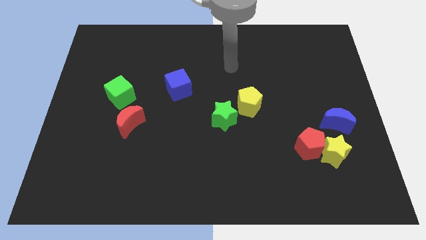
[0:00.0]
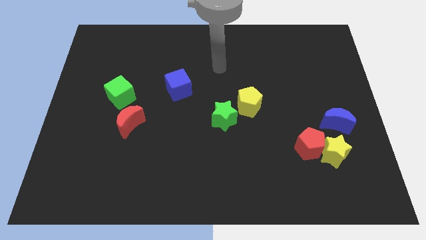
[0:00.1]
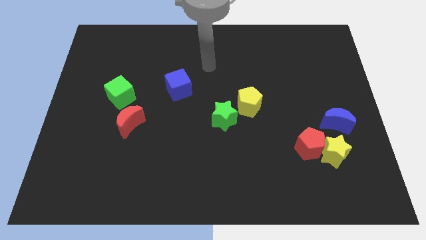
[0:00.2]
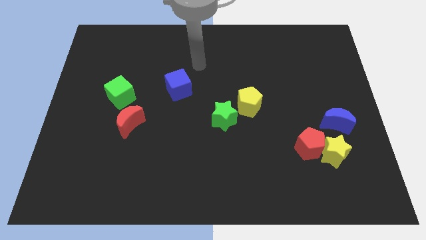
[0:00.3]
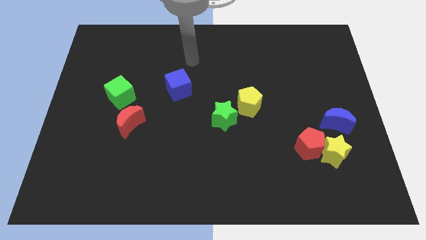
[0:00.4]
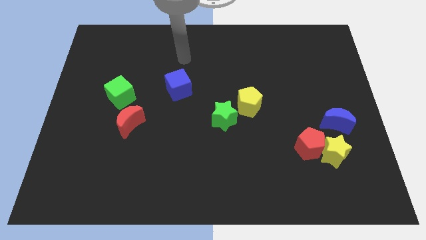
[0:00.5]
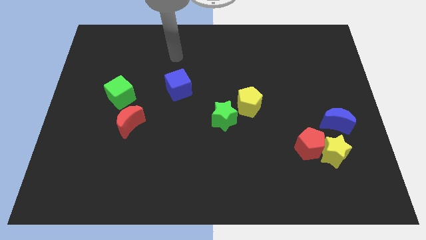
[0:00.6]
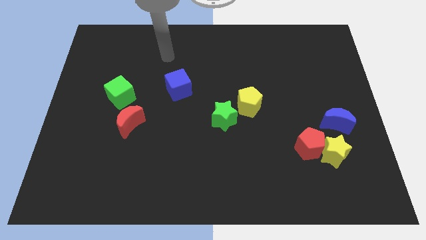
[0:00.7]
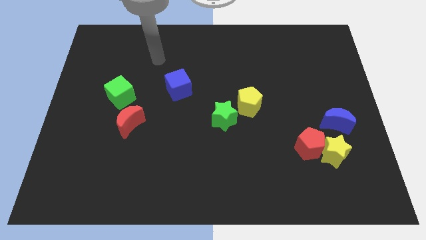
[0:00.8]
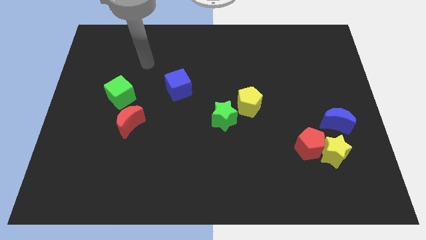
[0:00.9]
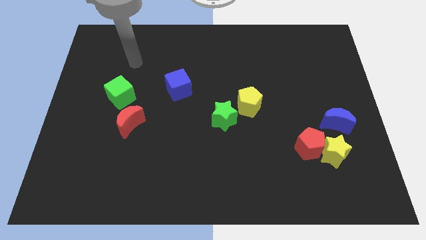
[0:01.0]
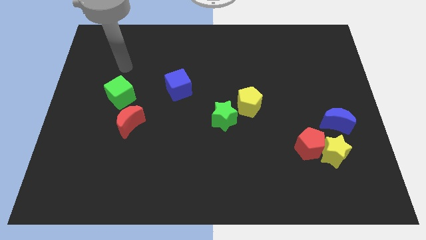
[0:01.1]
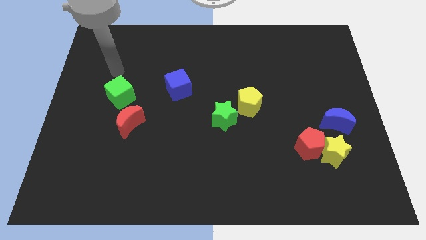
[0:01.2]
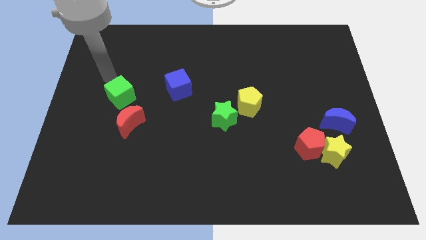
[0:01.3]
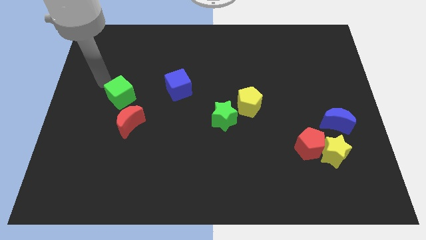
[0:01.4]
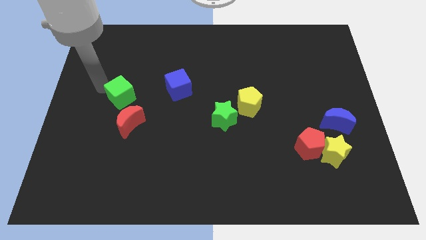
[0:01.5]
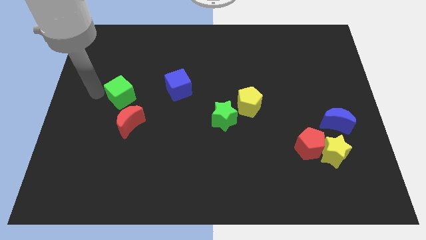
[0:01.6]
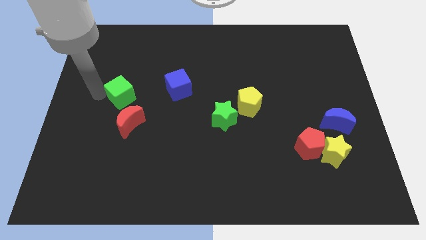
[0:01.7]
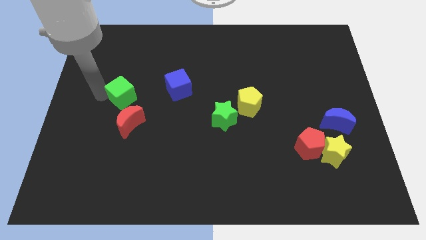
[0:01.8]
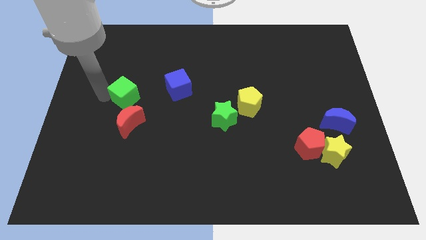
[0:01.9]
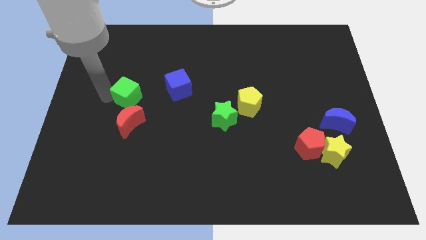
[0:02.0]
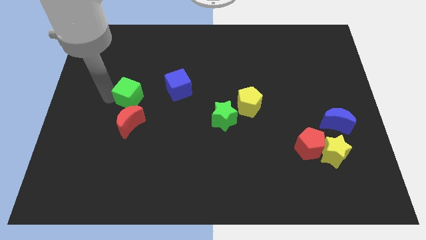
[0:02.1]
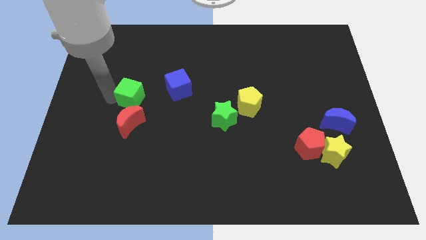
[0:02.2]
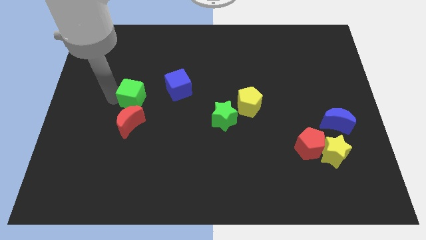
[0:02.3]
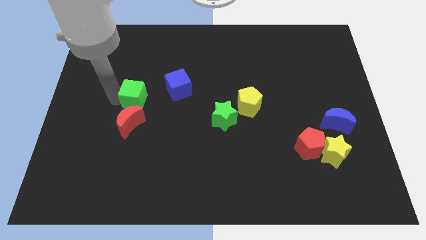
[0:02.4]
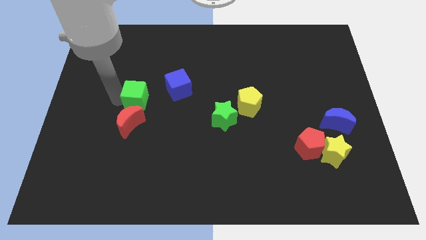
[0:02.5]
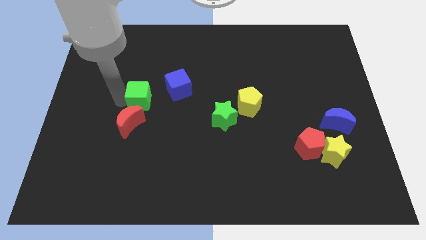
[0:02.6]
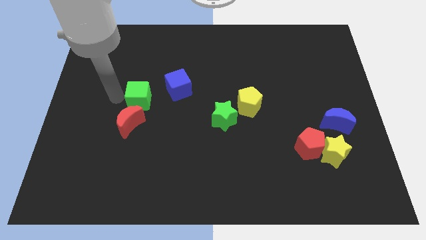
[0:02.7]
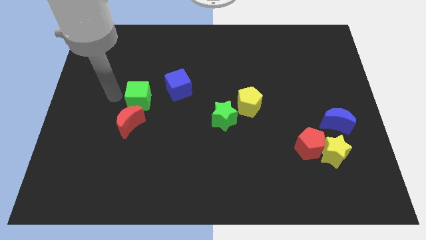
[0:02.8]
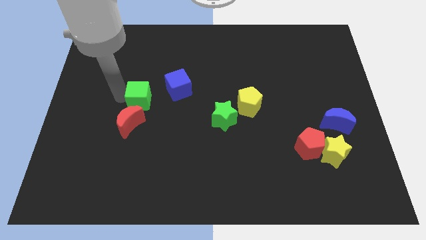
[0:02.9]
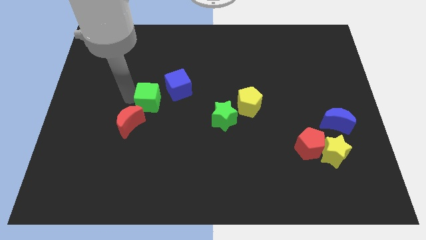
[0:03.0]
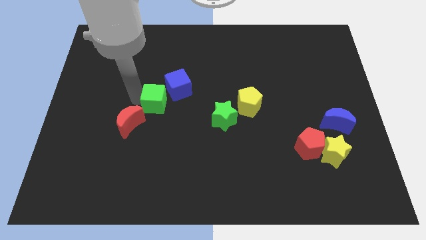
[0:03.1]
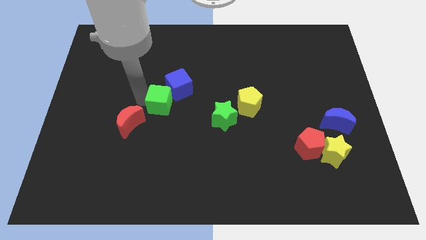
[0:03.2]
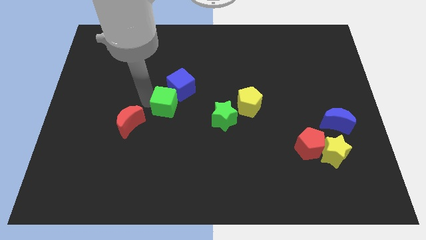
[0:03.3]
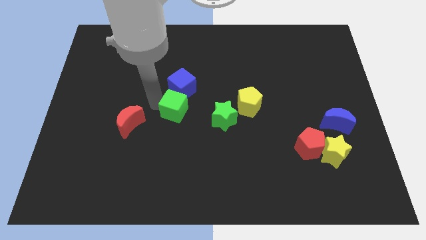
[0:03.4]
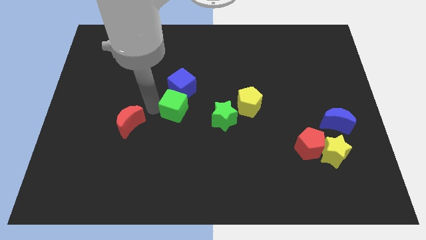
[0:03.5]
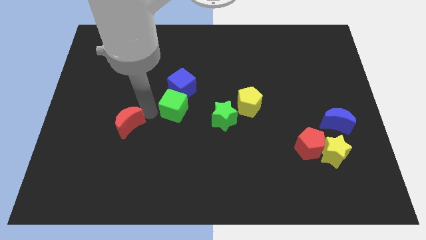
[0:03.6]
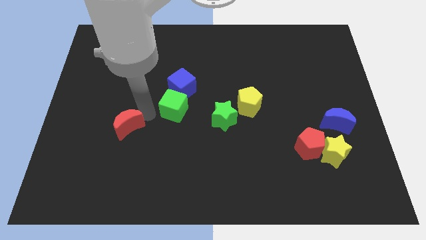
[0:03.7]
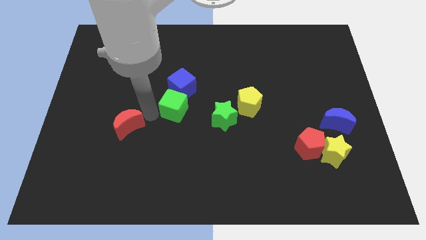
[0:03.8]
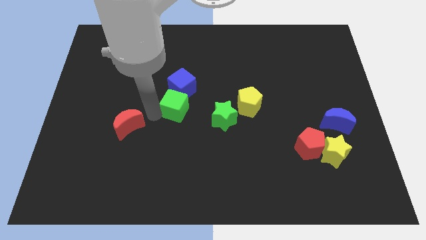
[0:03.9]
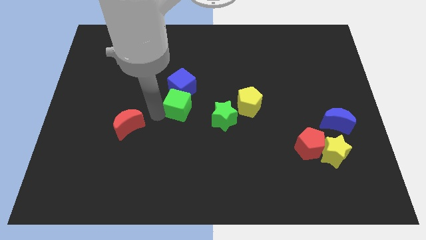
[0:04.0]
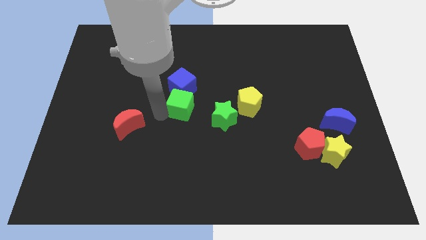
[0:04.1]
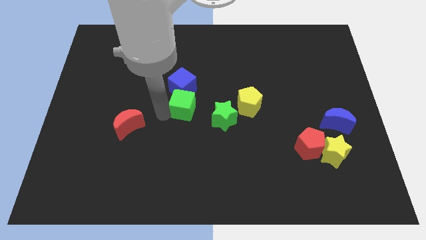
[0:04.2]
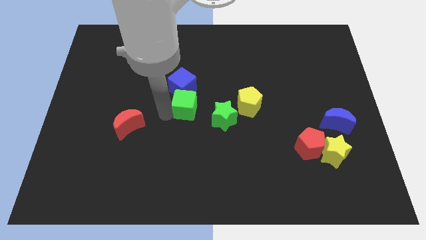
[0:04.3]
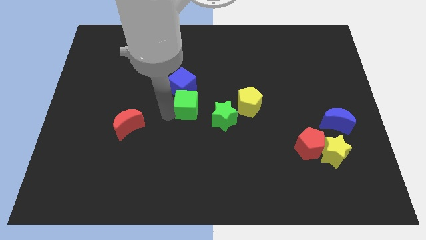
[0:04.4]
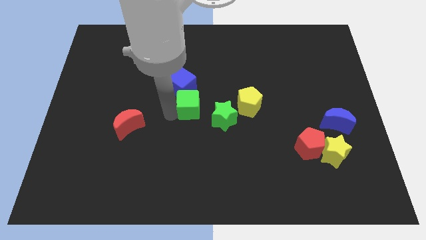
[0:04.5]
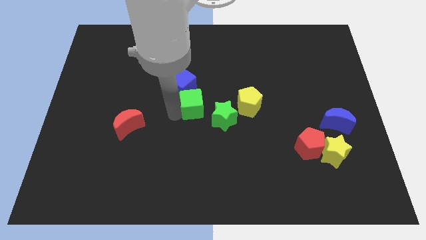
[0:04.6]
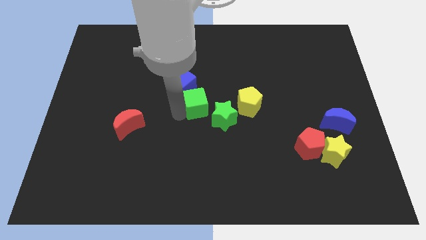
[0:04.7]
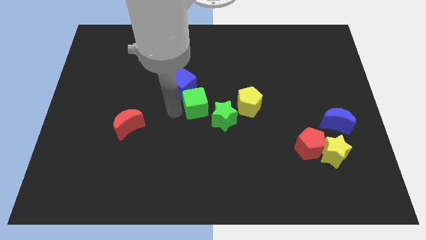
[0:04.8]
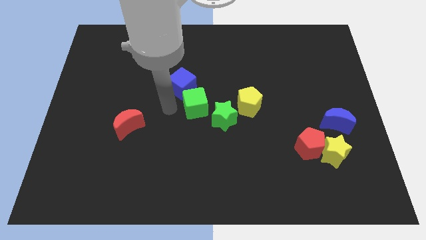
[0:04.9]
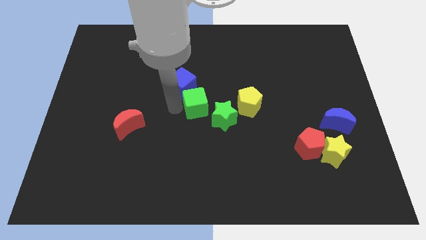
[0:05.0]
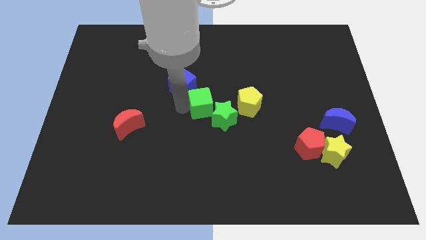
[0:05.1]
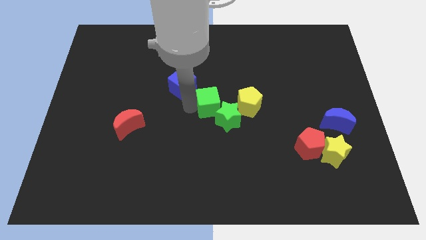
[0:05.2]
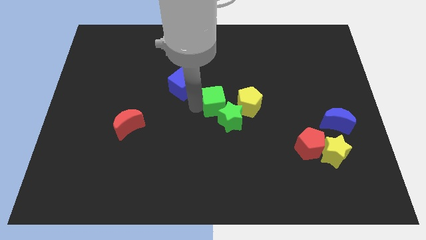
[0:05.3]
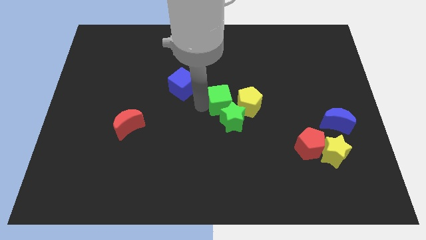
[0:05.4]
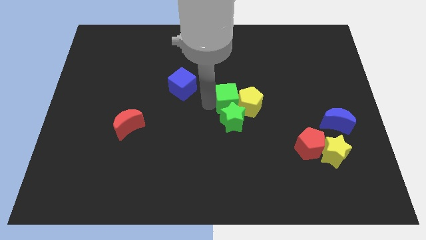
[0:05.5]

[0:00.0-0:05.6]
move the green cube towards the yellow pentagon

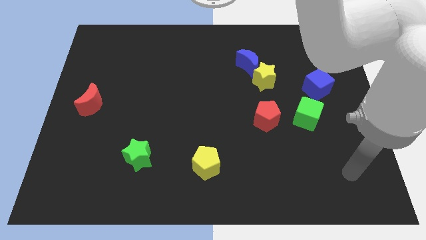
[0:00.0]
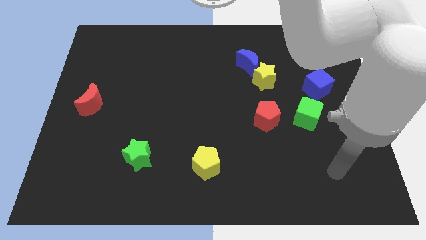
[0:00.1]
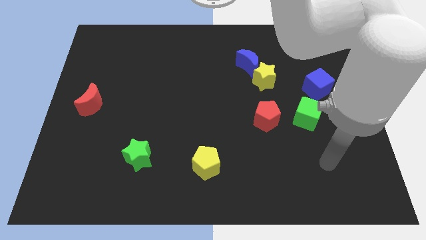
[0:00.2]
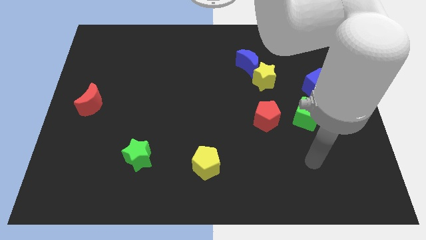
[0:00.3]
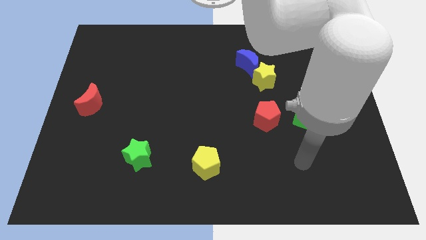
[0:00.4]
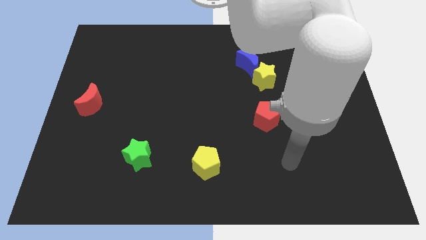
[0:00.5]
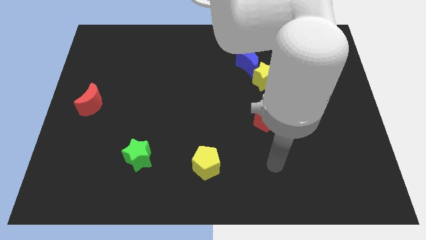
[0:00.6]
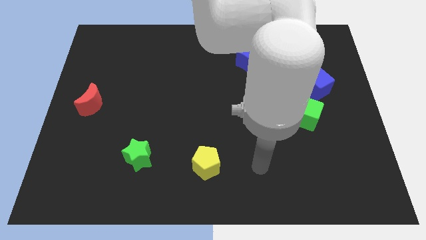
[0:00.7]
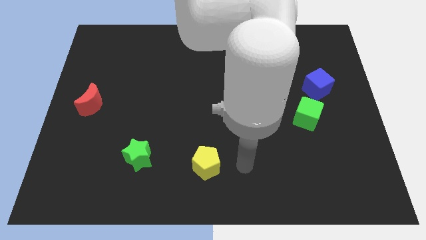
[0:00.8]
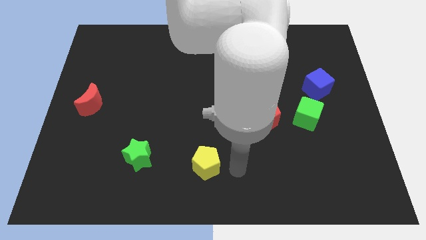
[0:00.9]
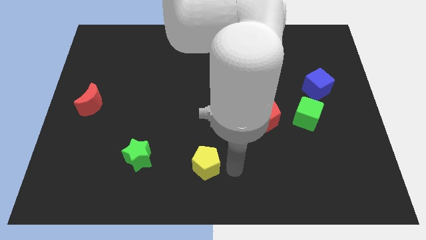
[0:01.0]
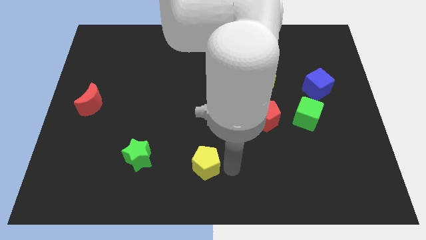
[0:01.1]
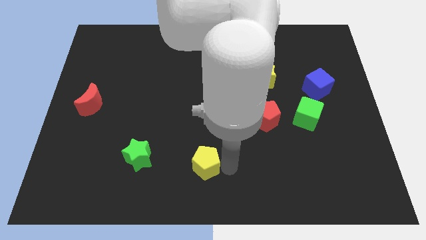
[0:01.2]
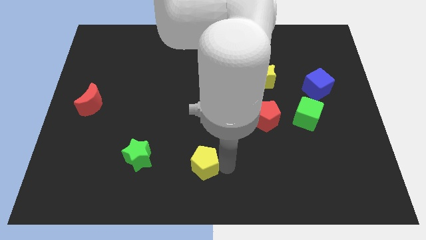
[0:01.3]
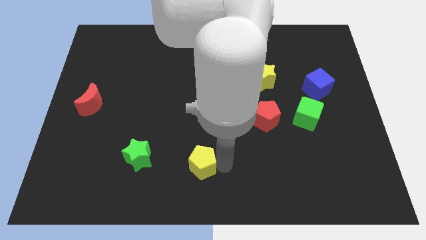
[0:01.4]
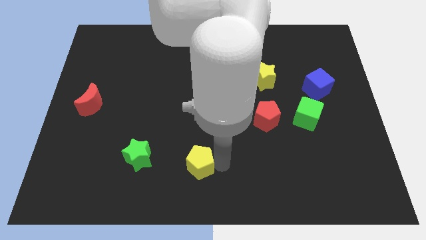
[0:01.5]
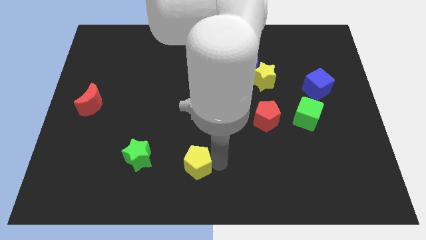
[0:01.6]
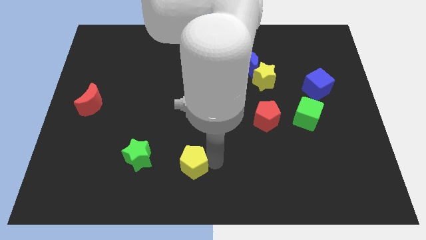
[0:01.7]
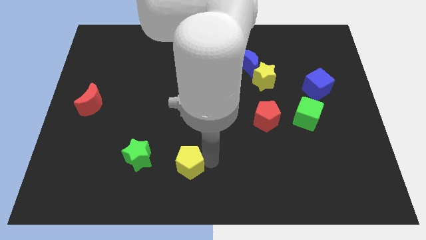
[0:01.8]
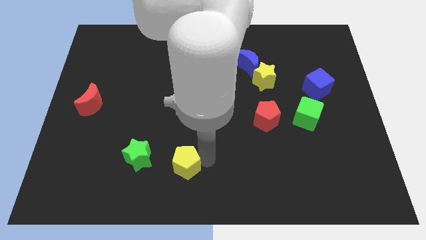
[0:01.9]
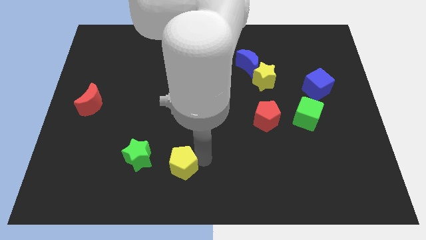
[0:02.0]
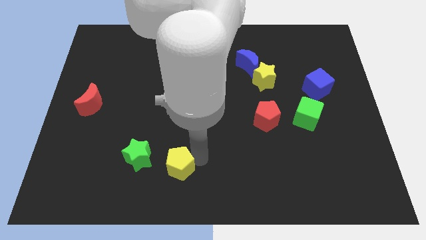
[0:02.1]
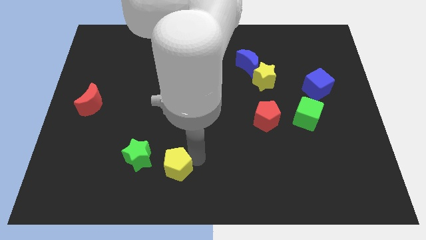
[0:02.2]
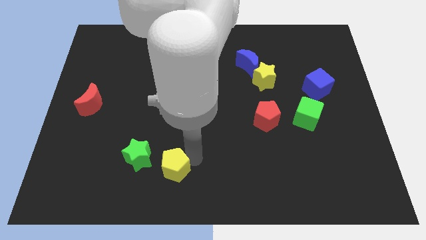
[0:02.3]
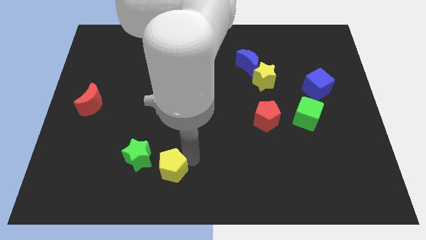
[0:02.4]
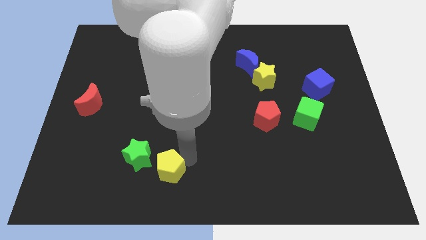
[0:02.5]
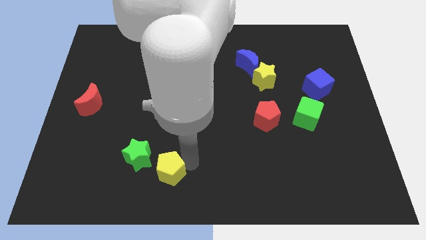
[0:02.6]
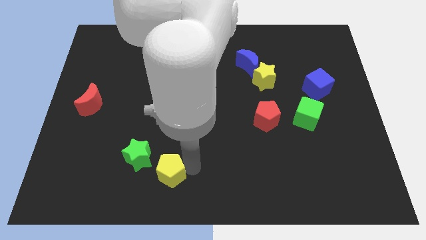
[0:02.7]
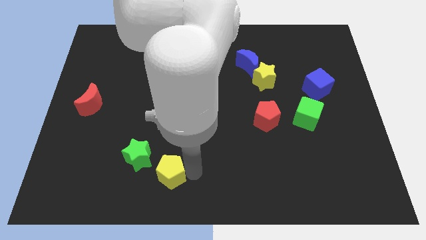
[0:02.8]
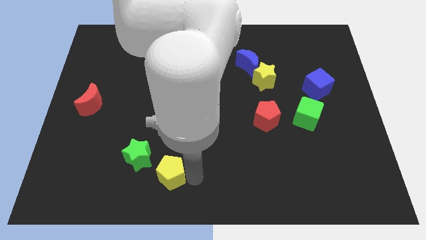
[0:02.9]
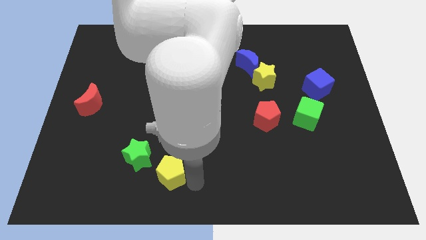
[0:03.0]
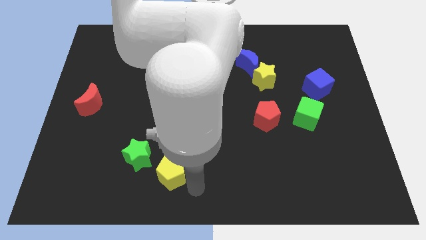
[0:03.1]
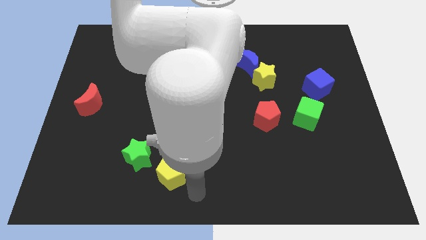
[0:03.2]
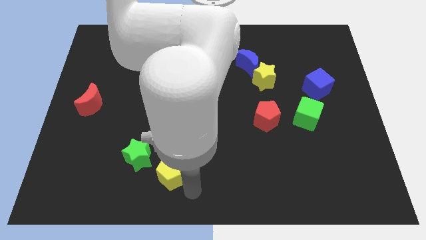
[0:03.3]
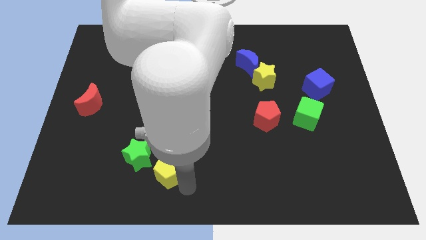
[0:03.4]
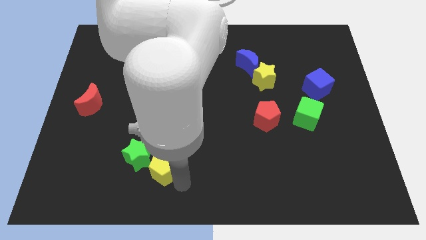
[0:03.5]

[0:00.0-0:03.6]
slide the yellow pentagon close to the green star
